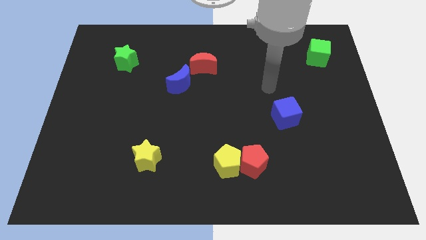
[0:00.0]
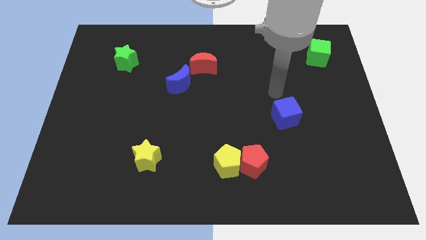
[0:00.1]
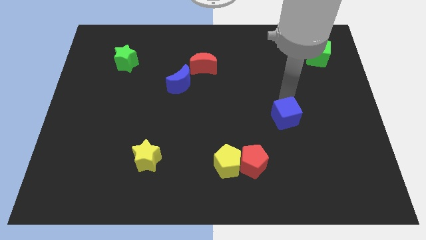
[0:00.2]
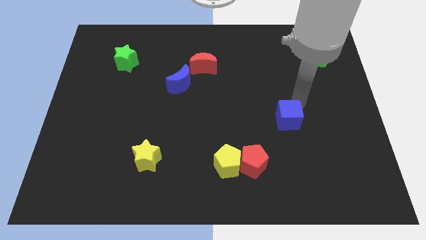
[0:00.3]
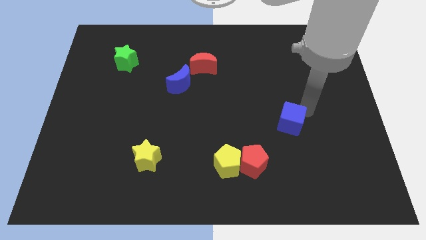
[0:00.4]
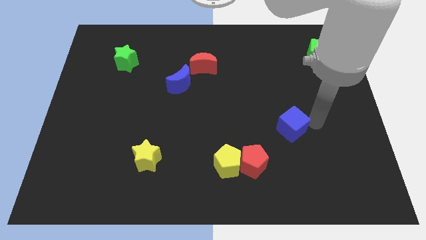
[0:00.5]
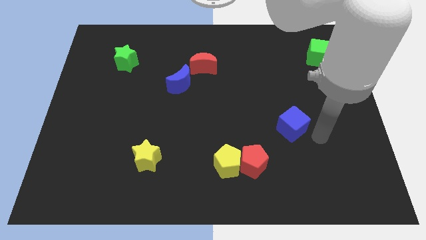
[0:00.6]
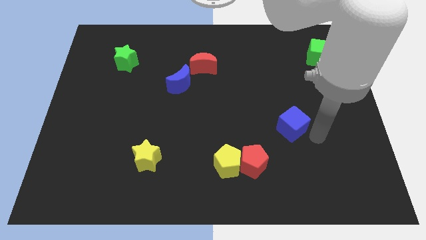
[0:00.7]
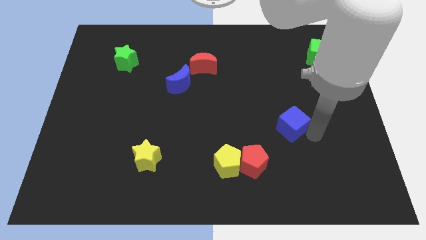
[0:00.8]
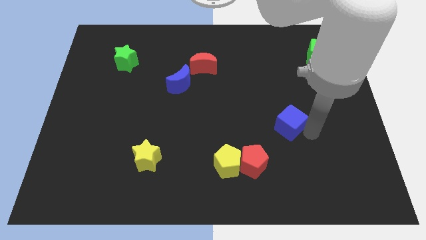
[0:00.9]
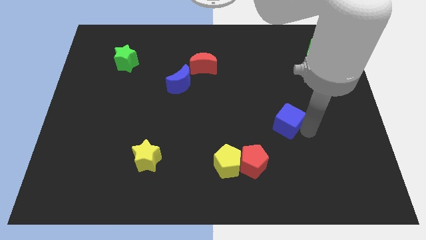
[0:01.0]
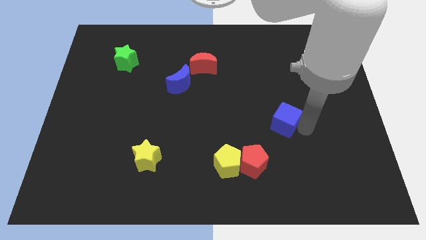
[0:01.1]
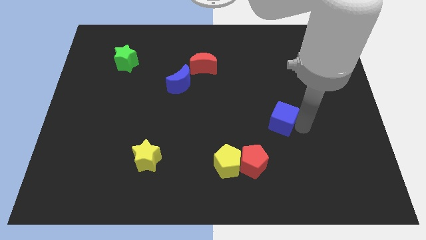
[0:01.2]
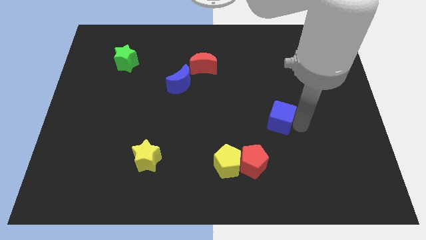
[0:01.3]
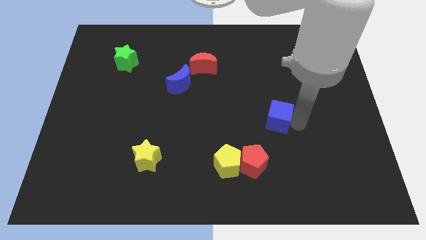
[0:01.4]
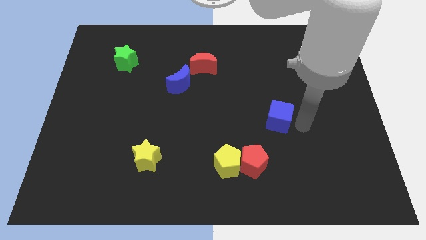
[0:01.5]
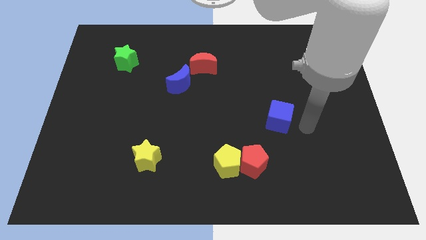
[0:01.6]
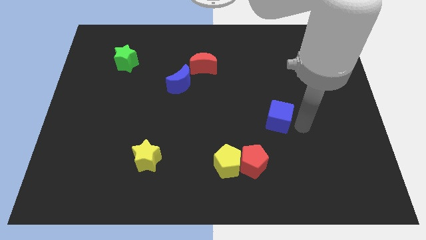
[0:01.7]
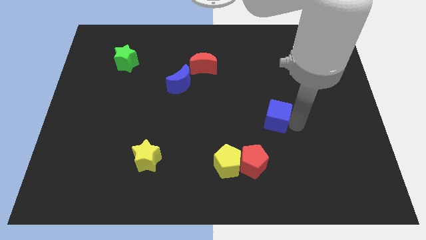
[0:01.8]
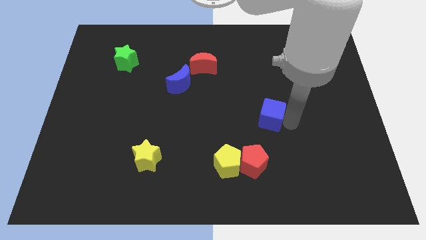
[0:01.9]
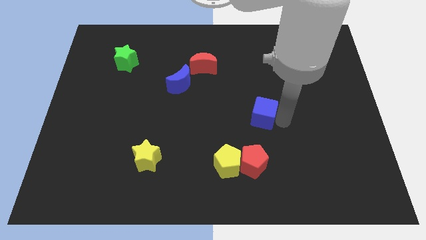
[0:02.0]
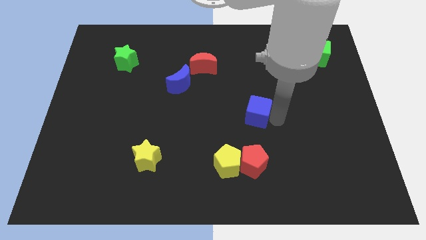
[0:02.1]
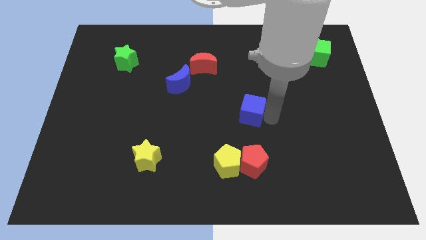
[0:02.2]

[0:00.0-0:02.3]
move the blue cube left somewhat

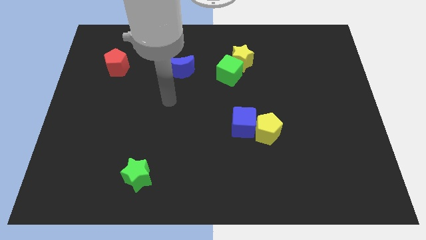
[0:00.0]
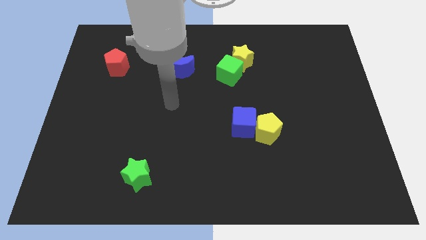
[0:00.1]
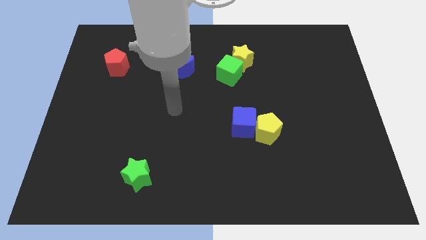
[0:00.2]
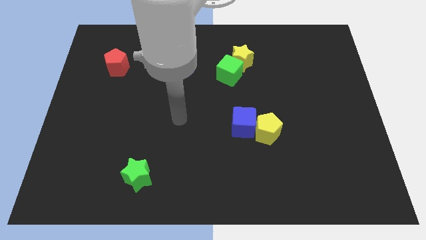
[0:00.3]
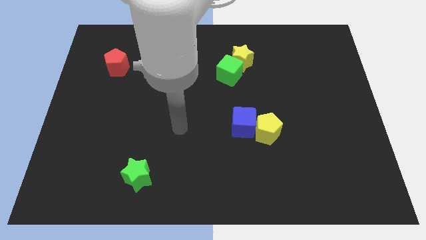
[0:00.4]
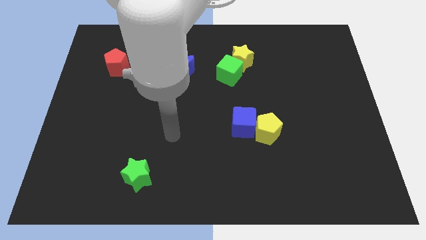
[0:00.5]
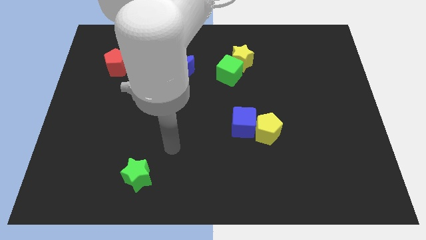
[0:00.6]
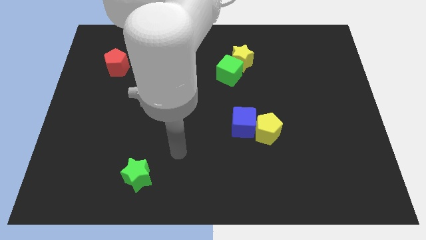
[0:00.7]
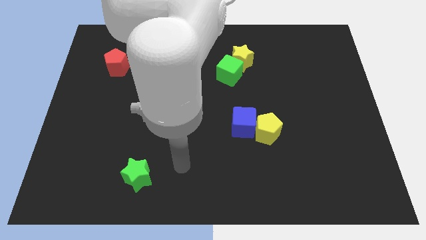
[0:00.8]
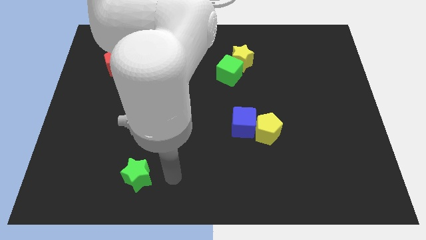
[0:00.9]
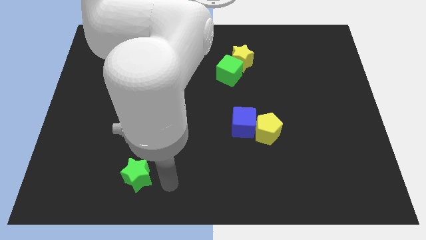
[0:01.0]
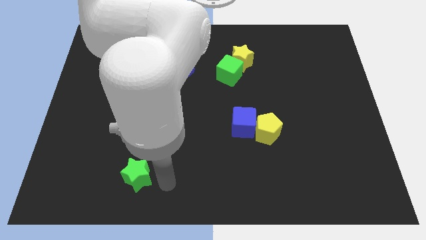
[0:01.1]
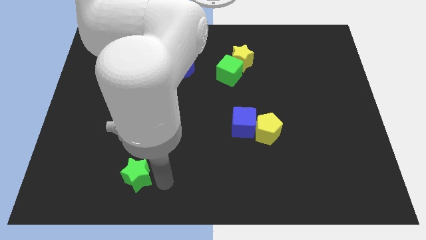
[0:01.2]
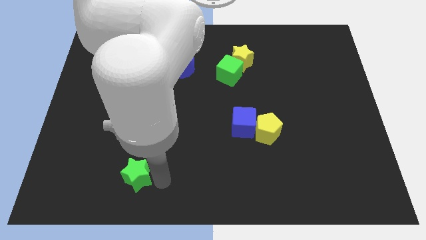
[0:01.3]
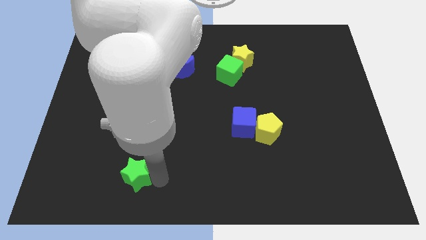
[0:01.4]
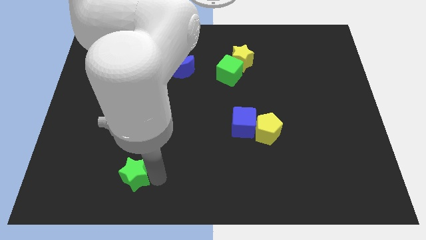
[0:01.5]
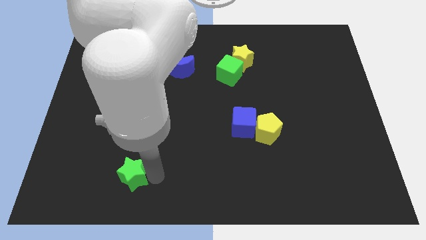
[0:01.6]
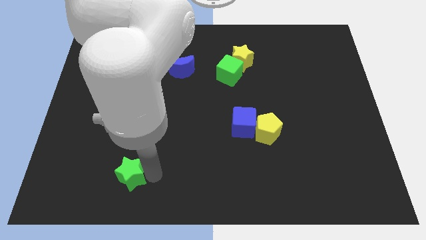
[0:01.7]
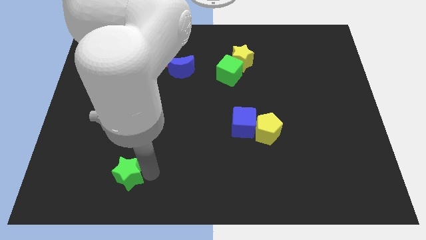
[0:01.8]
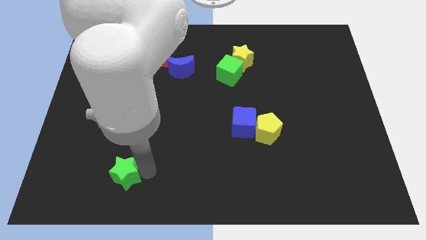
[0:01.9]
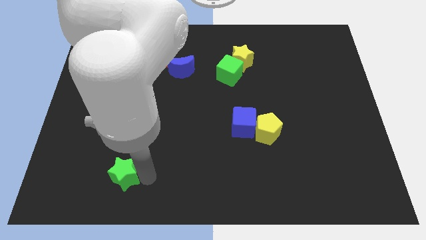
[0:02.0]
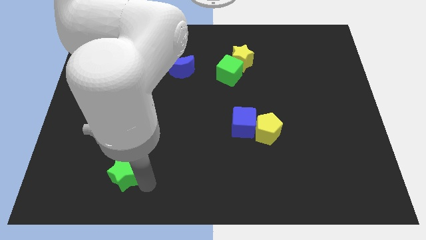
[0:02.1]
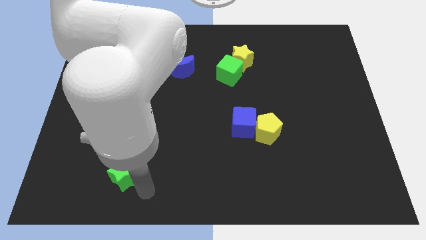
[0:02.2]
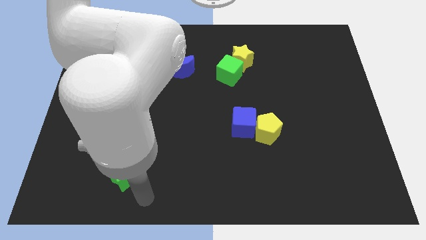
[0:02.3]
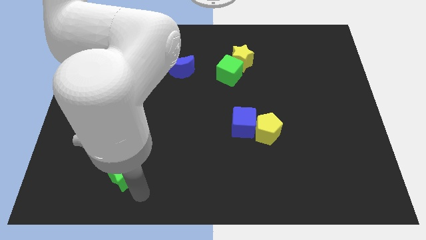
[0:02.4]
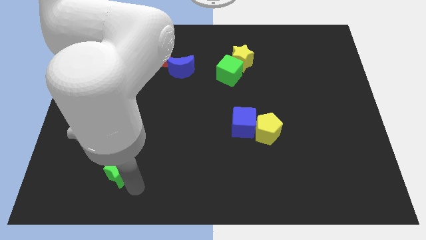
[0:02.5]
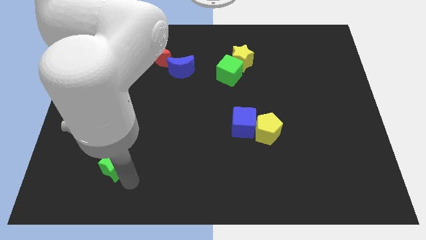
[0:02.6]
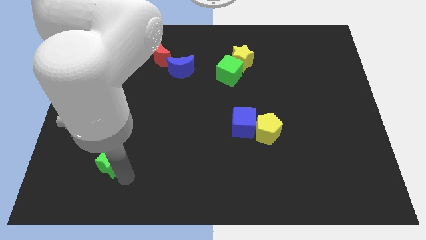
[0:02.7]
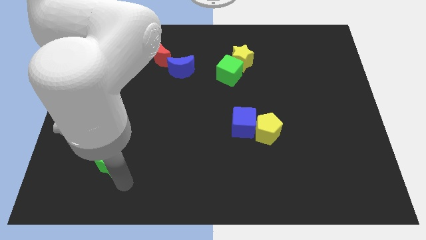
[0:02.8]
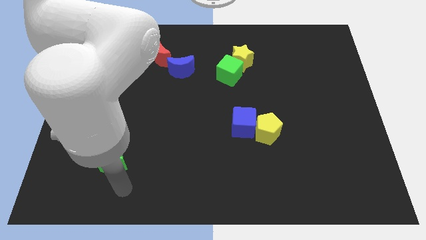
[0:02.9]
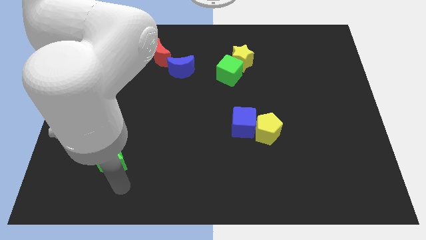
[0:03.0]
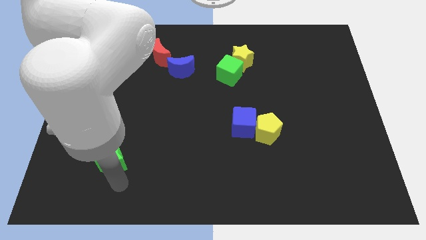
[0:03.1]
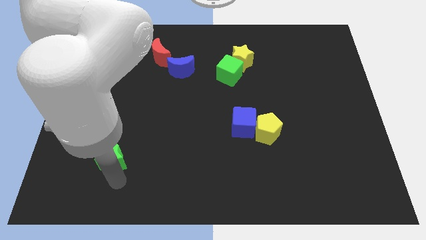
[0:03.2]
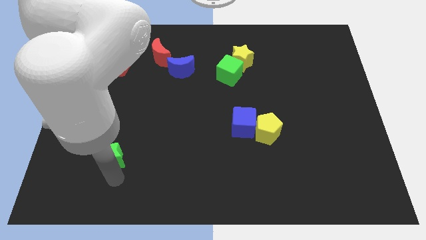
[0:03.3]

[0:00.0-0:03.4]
push the green star a bit upwards and to the left diagonally

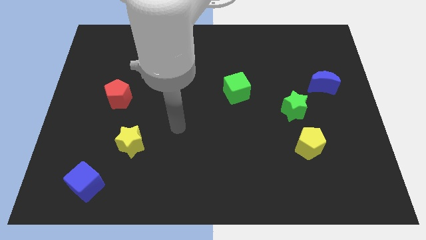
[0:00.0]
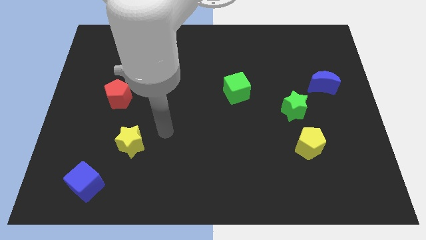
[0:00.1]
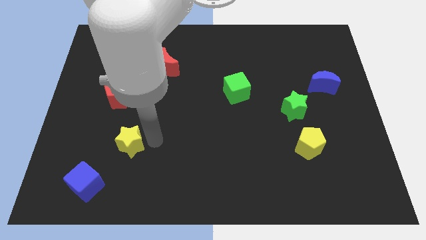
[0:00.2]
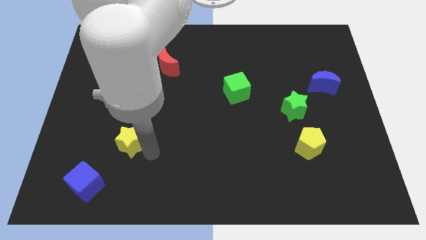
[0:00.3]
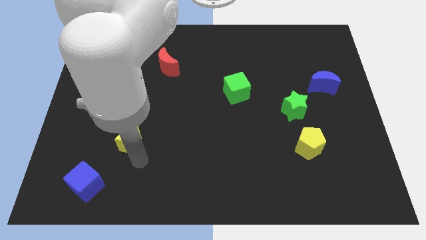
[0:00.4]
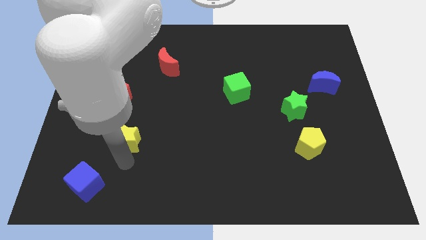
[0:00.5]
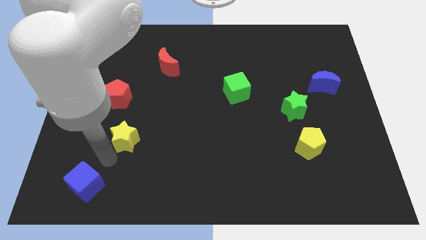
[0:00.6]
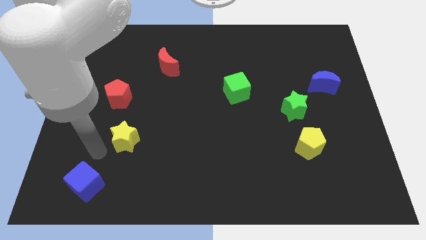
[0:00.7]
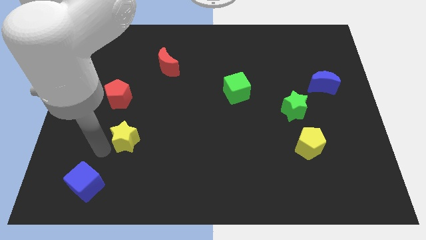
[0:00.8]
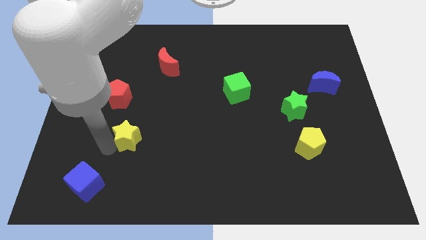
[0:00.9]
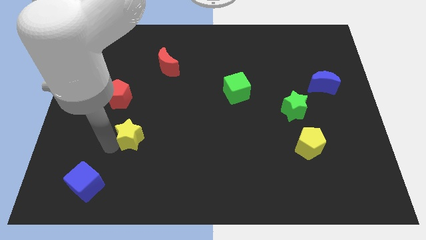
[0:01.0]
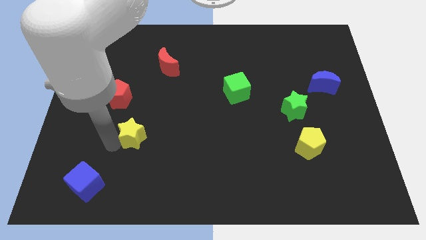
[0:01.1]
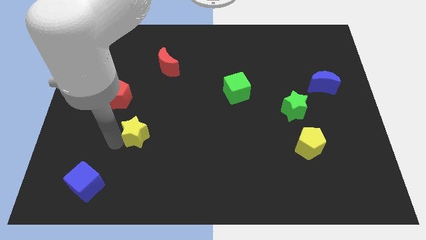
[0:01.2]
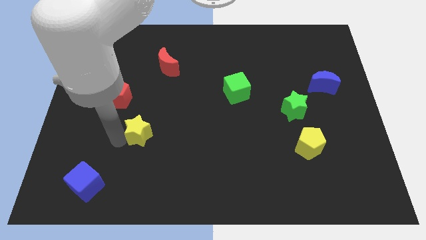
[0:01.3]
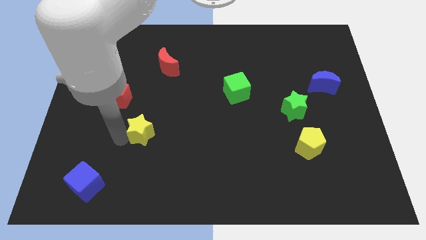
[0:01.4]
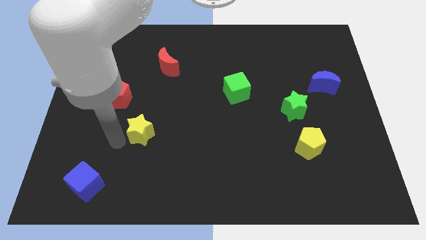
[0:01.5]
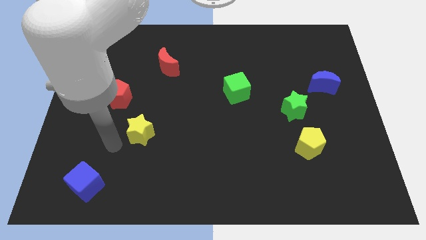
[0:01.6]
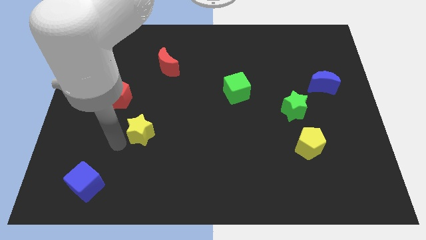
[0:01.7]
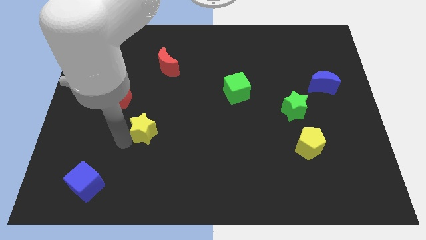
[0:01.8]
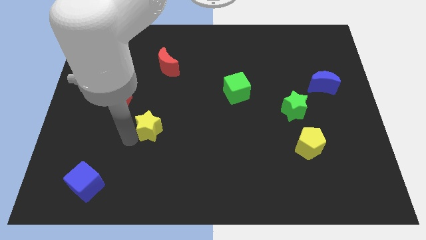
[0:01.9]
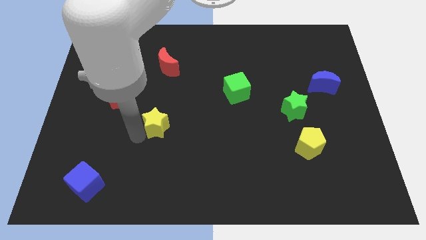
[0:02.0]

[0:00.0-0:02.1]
slide the yellow star up and to the right diagonally a bit
